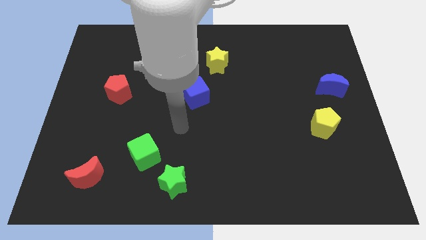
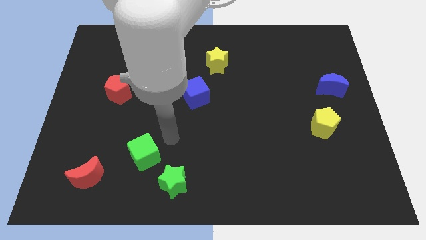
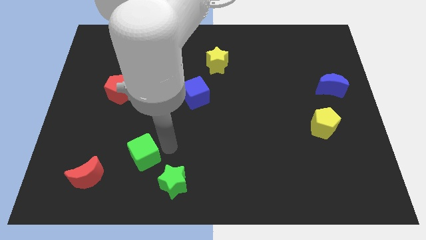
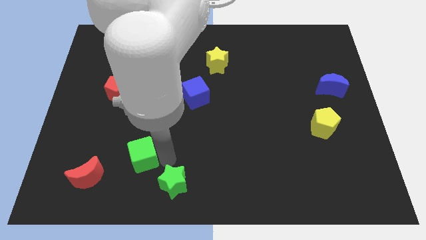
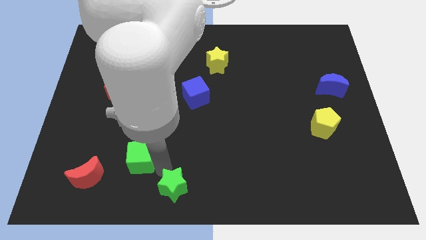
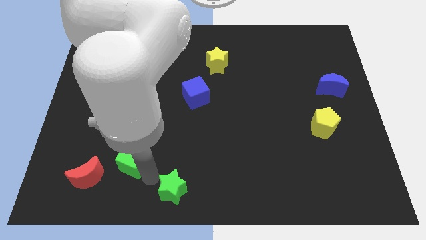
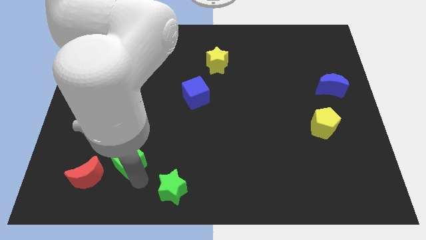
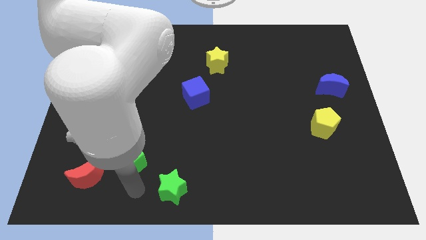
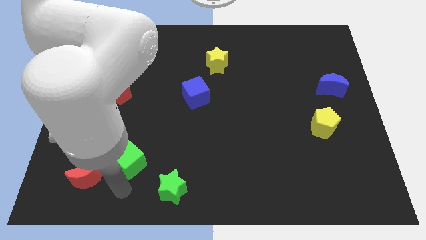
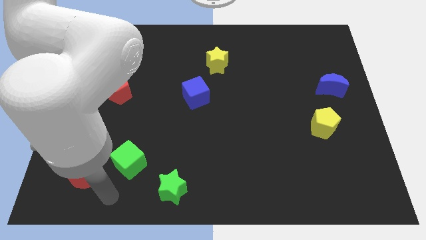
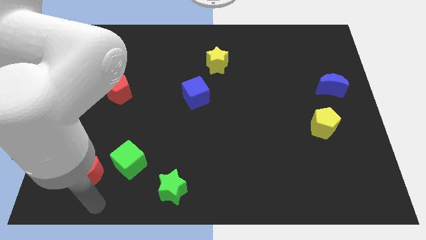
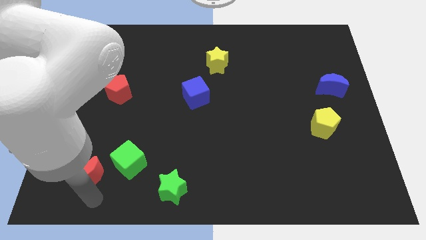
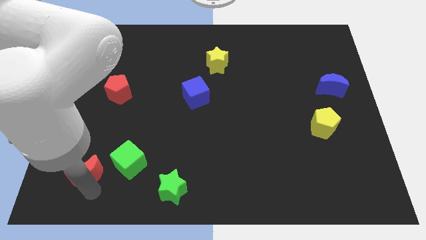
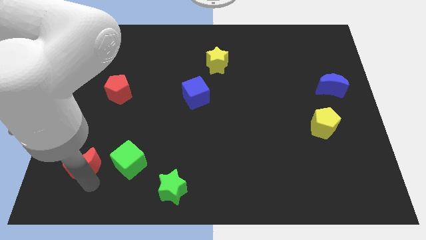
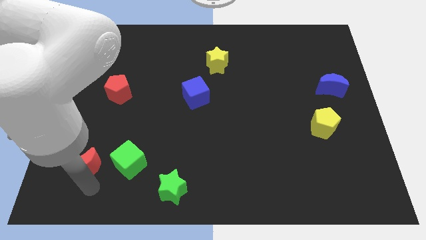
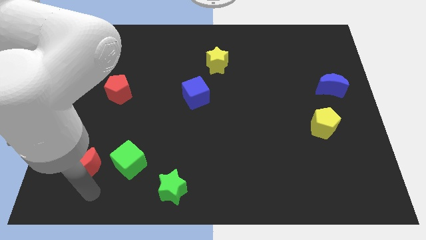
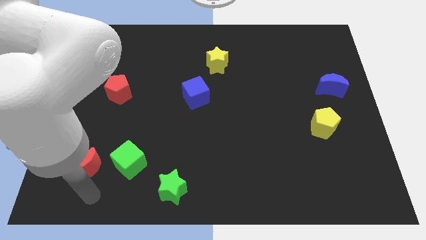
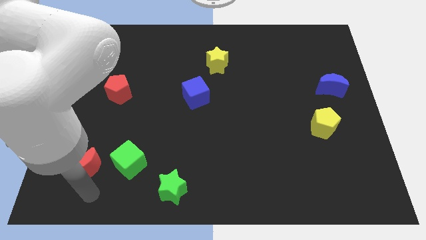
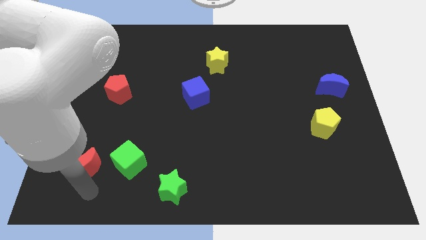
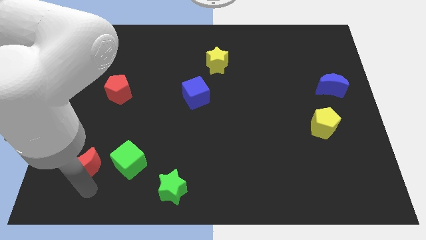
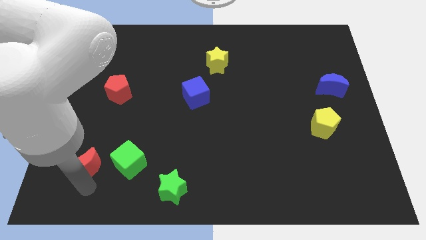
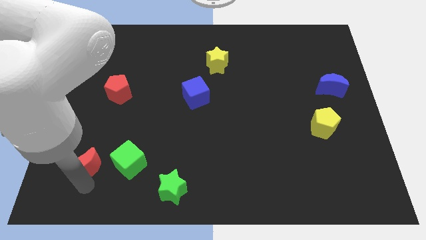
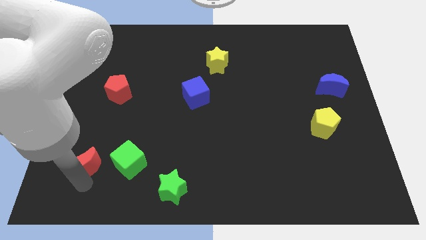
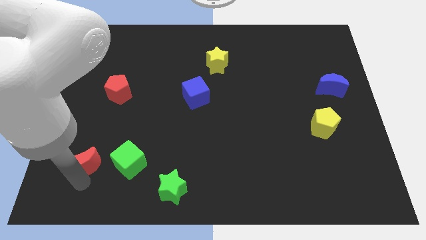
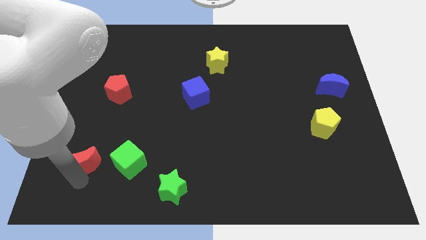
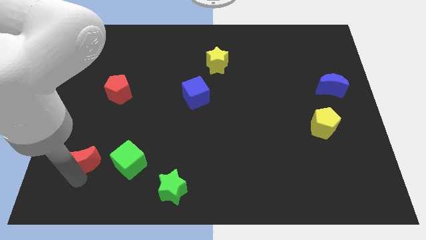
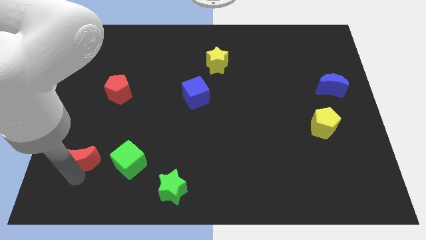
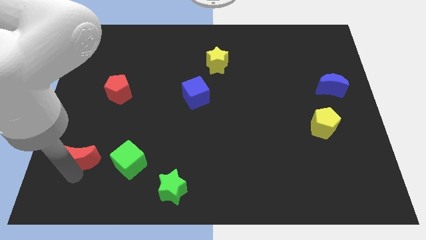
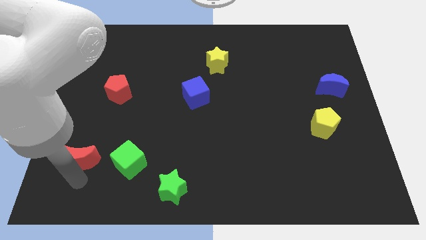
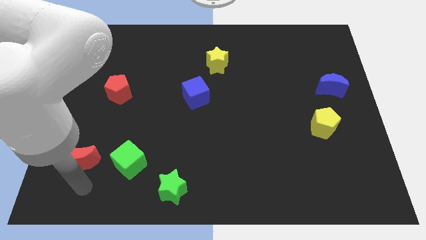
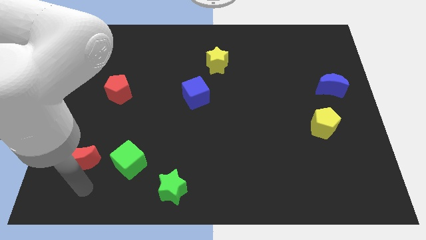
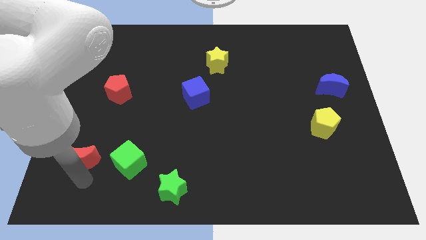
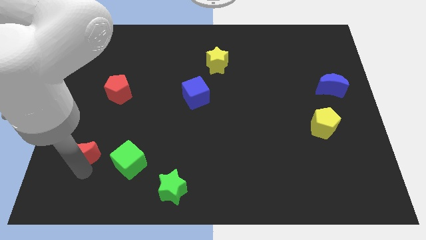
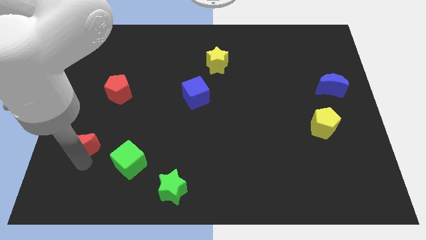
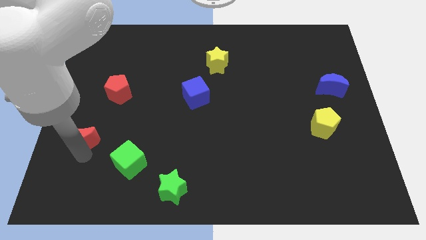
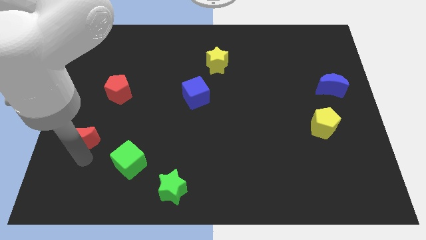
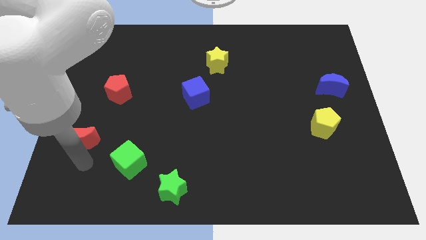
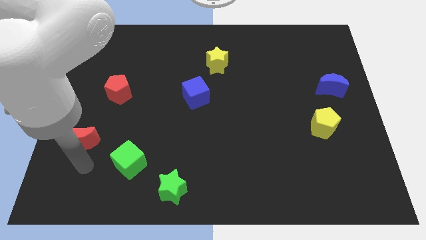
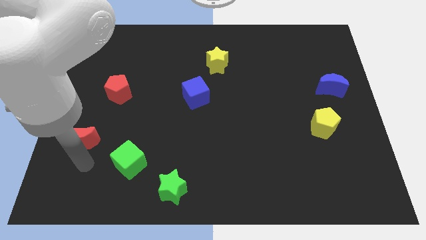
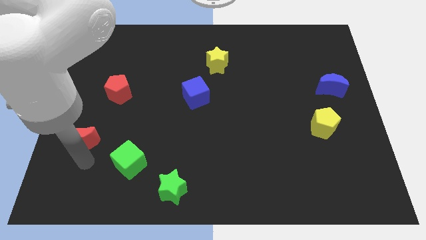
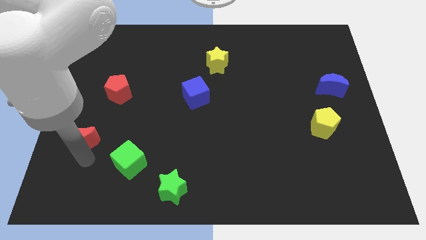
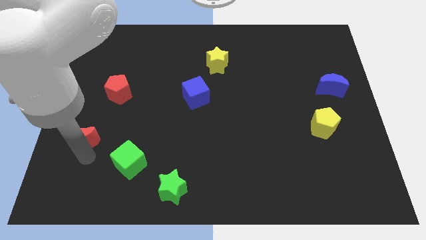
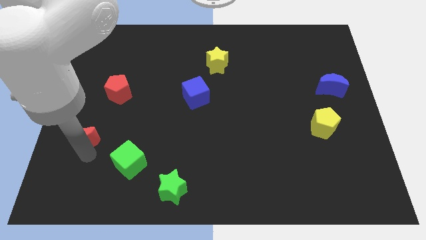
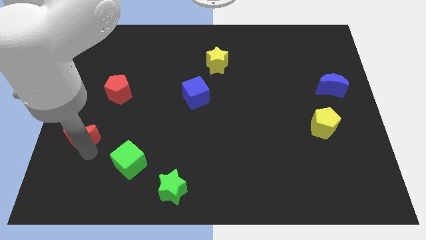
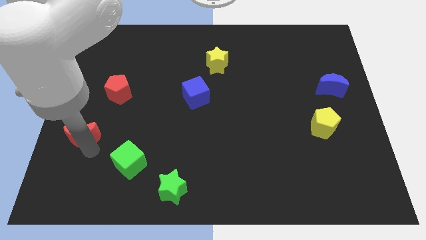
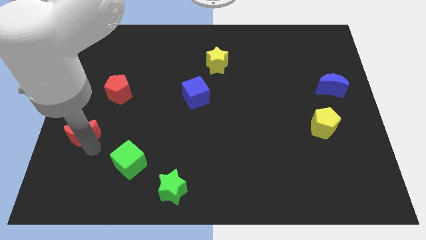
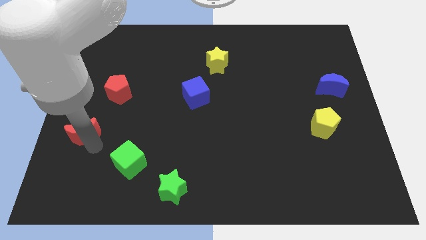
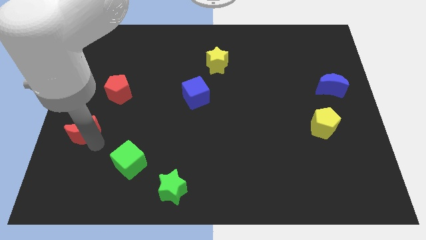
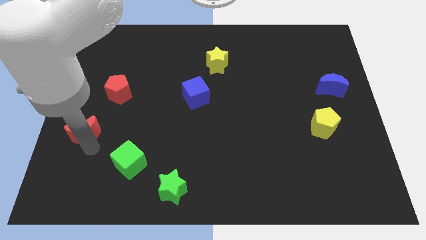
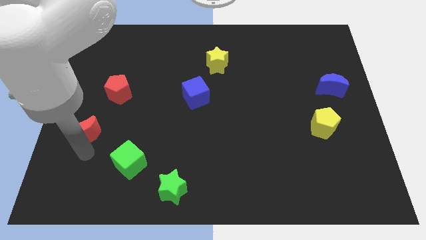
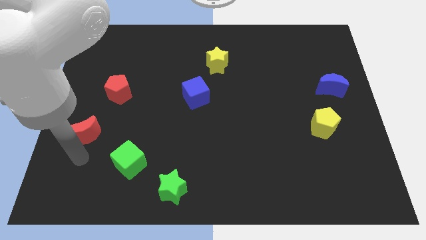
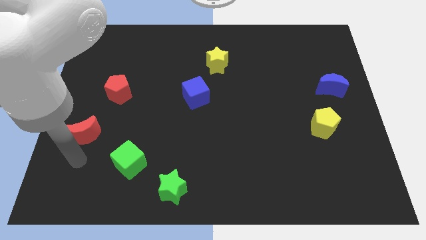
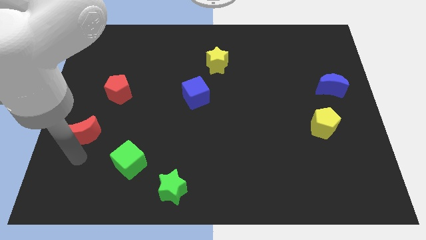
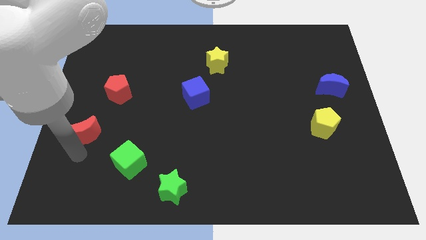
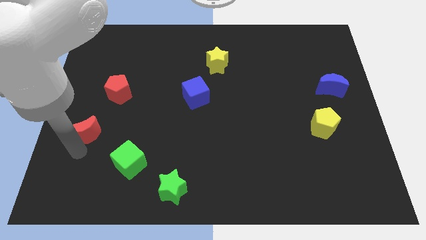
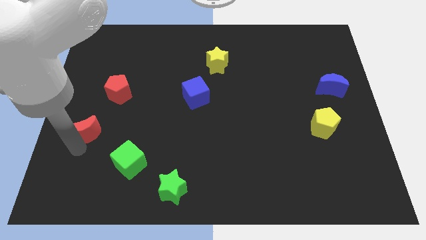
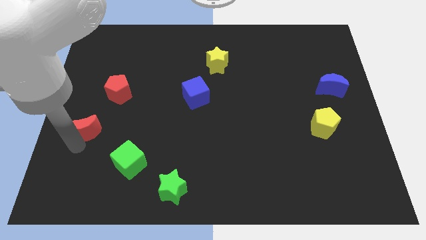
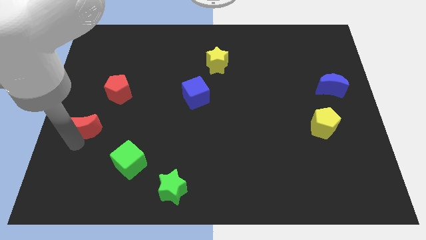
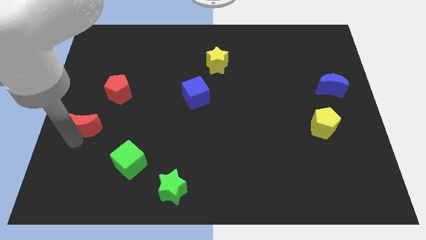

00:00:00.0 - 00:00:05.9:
slide the red moon to the bottom left of the red pentagon

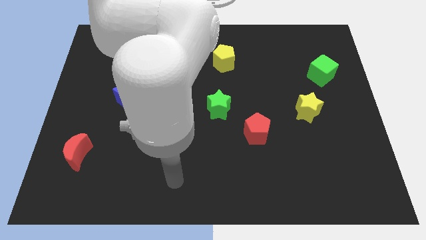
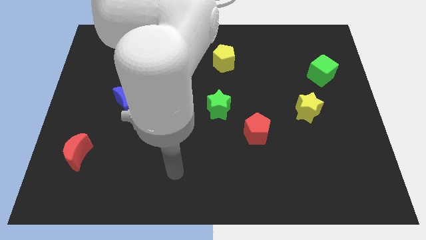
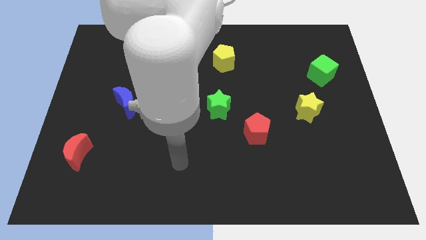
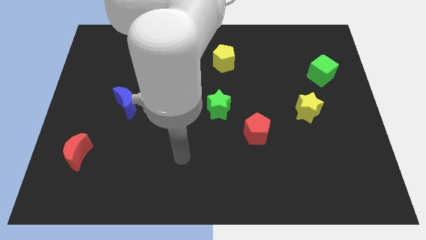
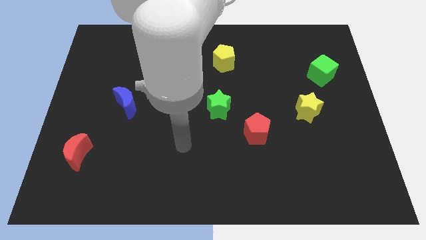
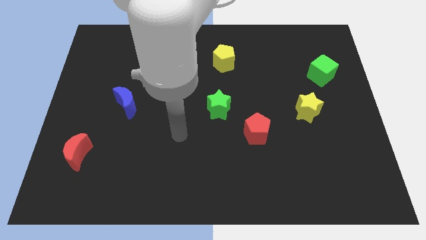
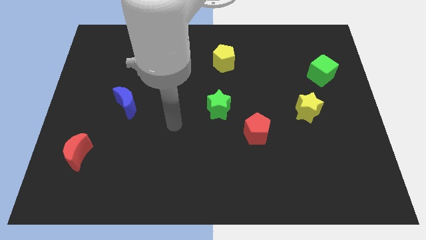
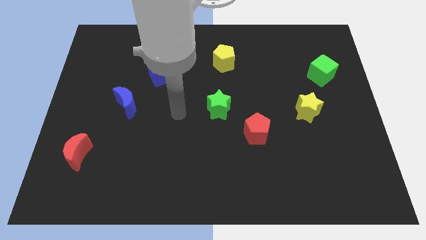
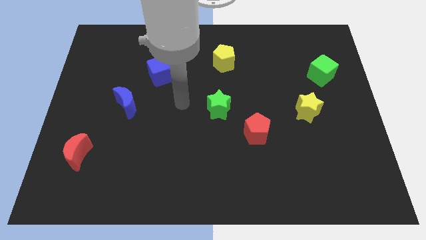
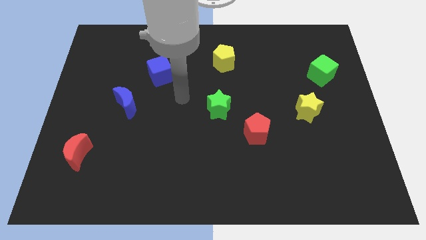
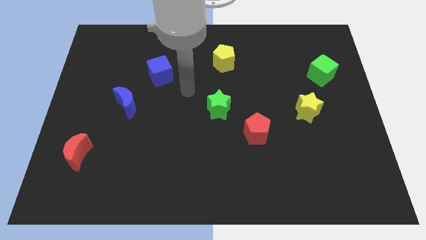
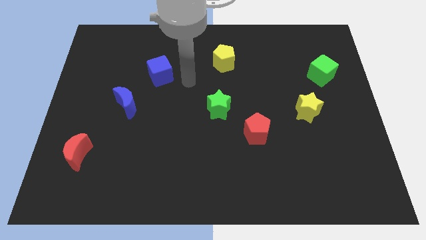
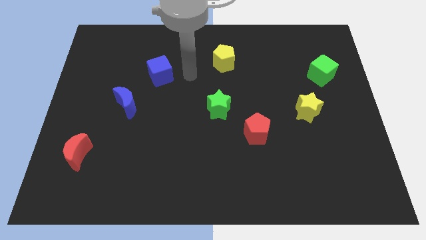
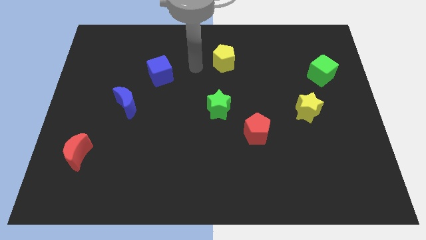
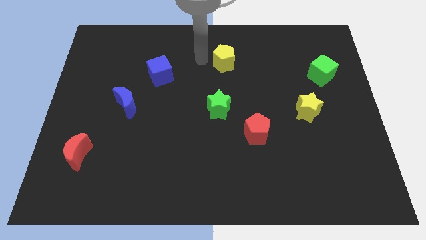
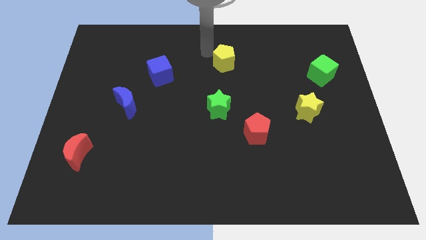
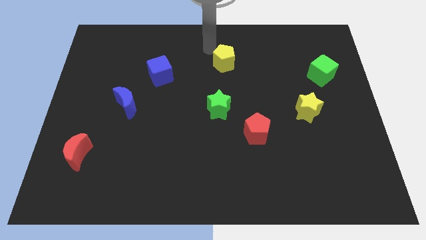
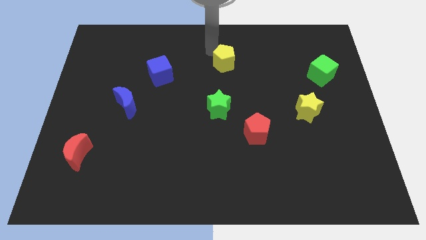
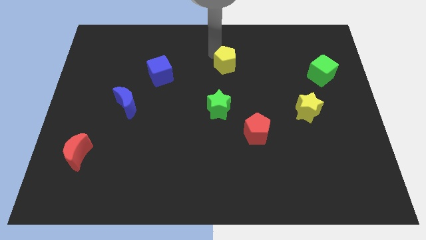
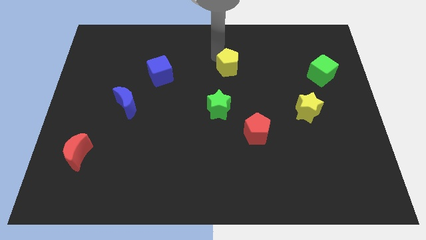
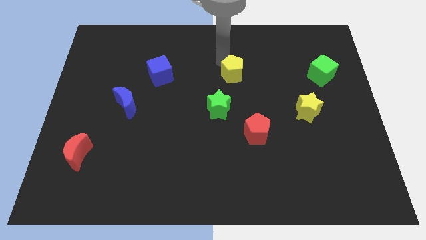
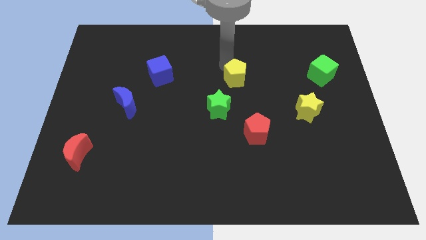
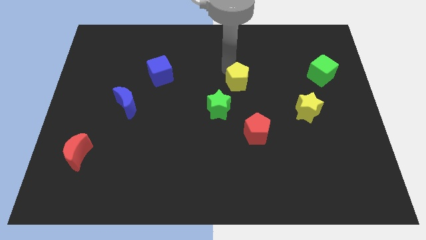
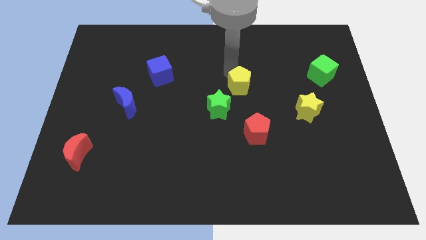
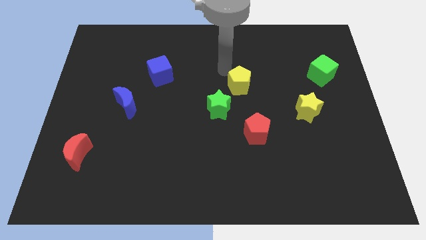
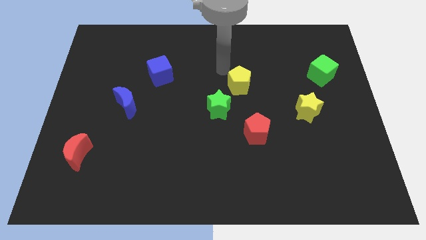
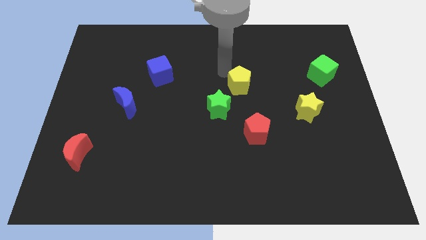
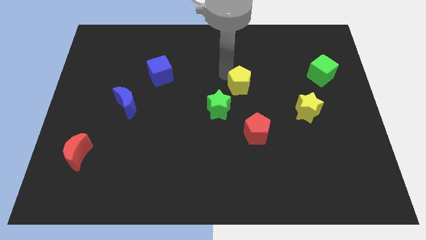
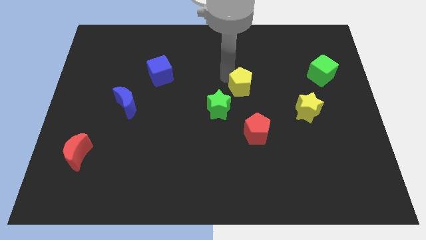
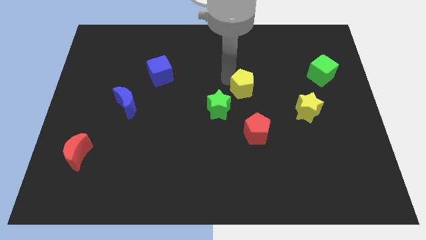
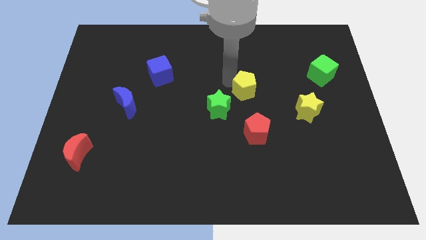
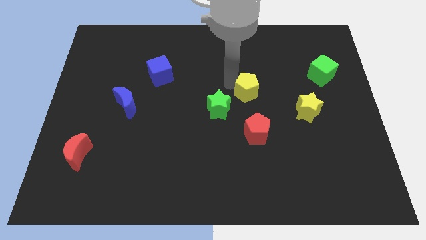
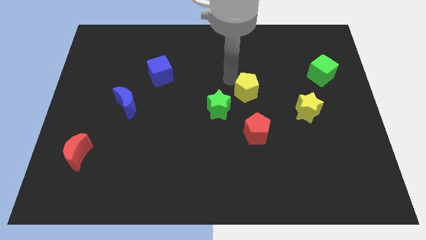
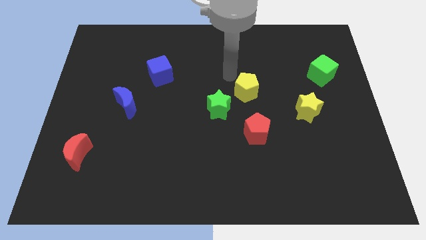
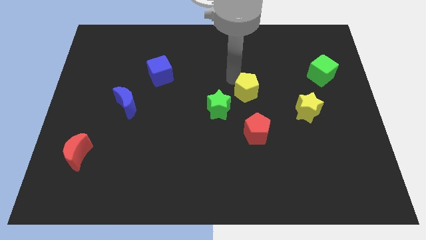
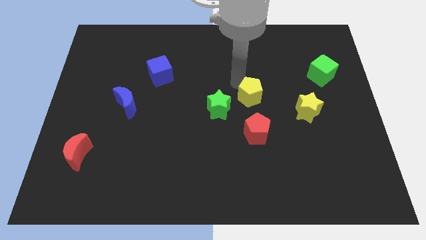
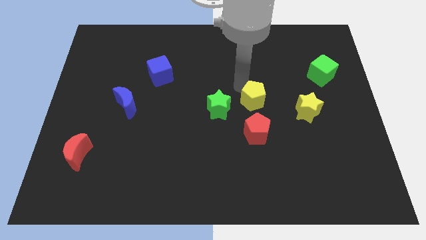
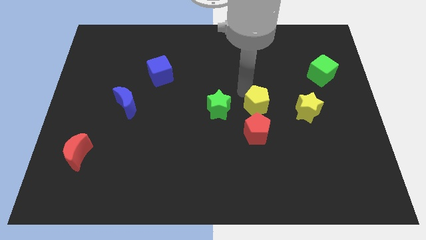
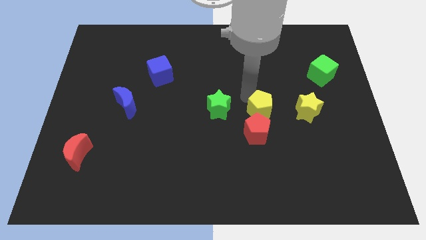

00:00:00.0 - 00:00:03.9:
push the yellow pentagon to the top right side of the red pentagon
